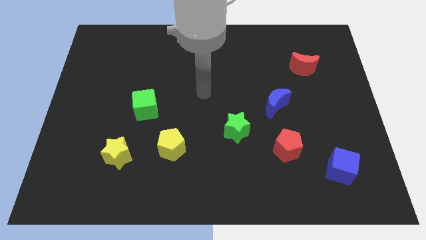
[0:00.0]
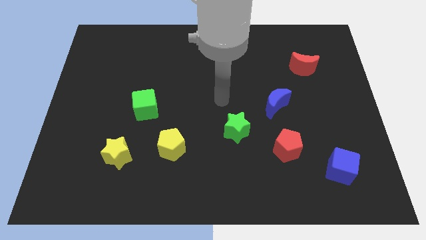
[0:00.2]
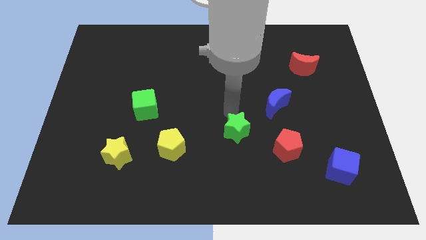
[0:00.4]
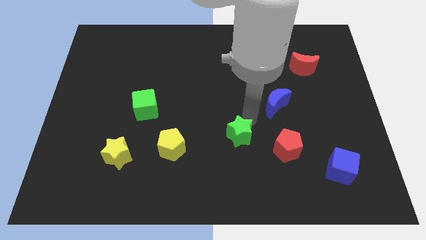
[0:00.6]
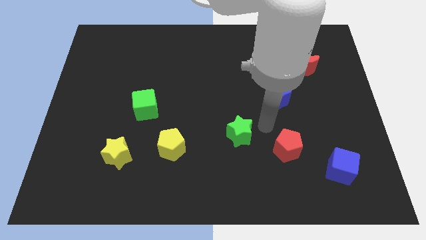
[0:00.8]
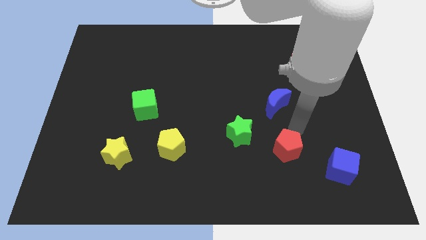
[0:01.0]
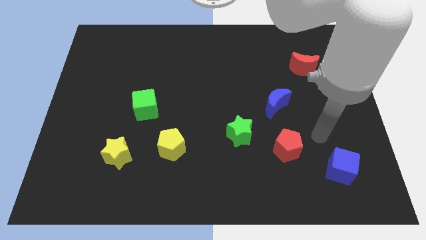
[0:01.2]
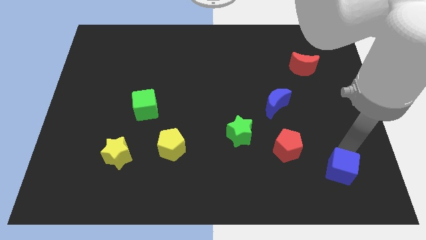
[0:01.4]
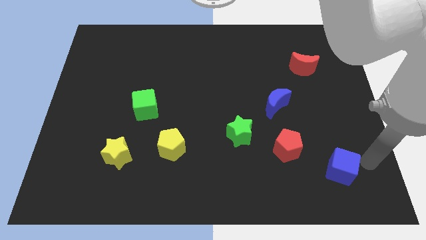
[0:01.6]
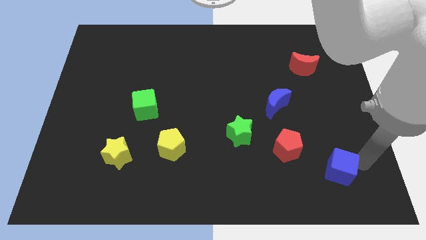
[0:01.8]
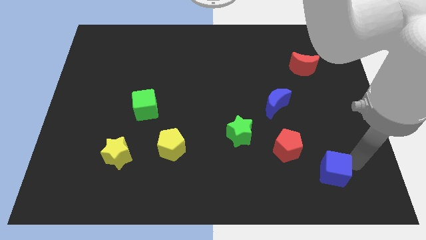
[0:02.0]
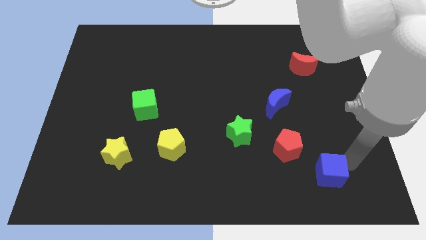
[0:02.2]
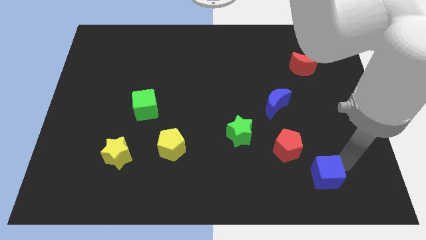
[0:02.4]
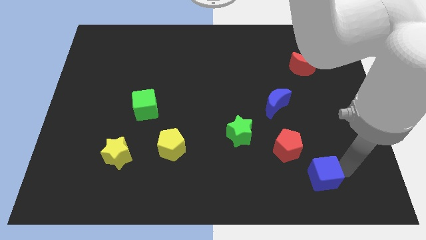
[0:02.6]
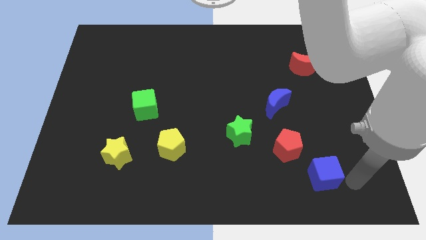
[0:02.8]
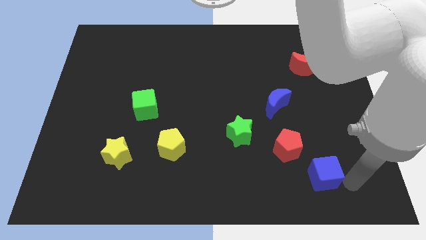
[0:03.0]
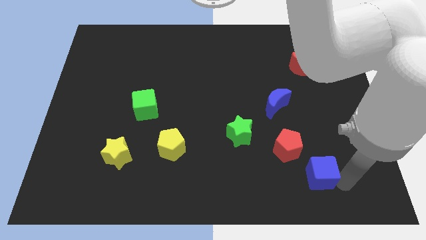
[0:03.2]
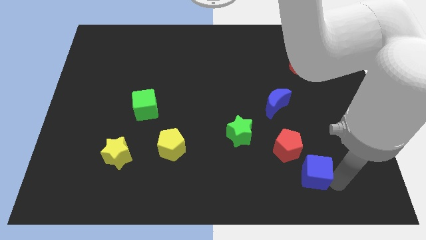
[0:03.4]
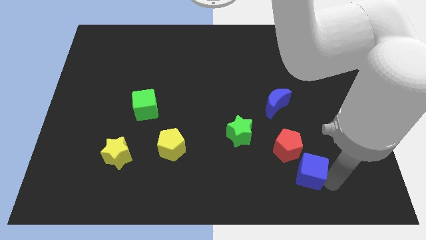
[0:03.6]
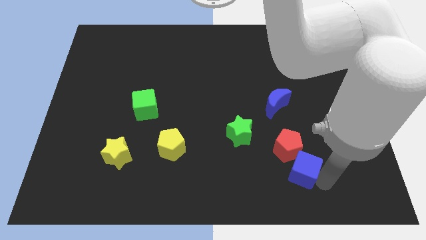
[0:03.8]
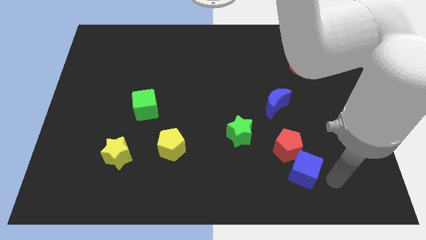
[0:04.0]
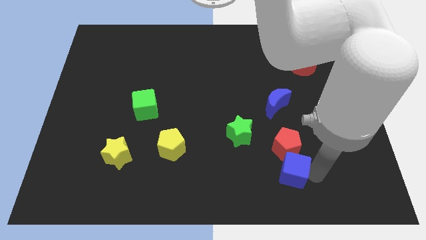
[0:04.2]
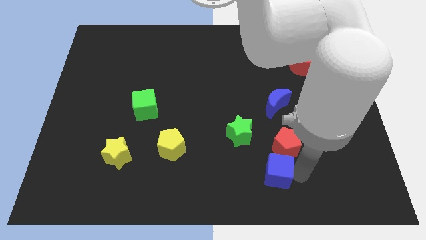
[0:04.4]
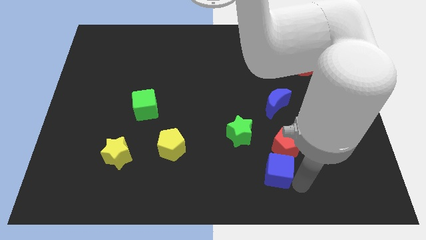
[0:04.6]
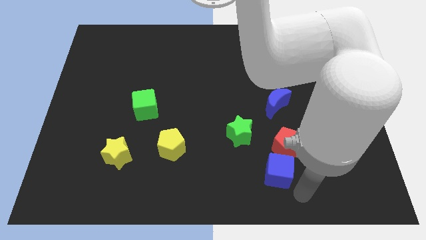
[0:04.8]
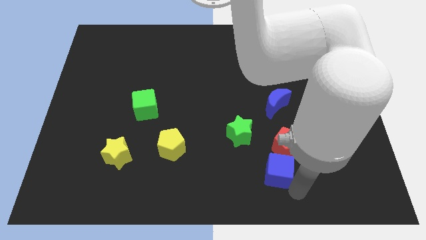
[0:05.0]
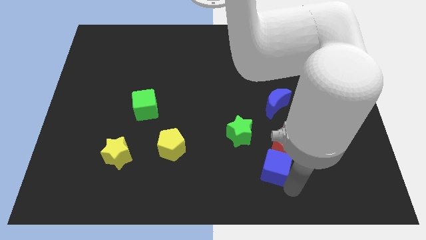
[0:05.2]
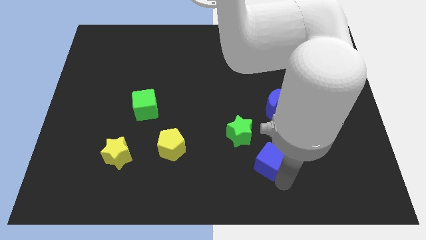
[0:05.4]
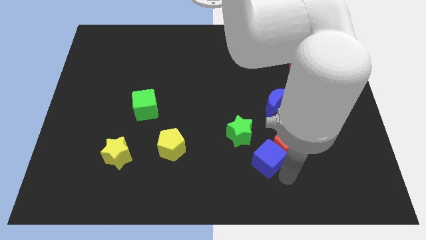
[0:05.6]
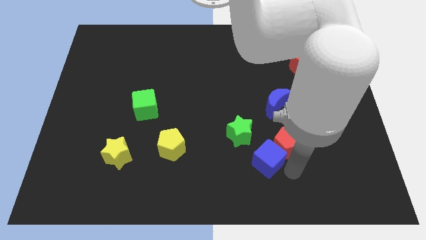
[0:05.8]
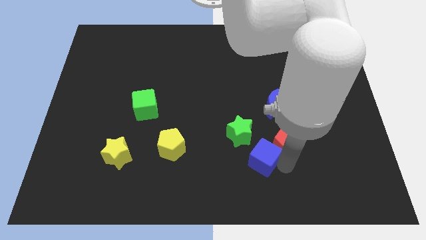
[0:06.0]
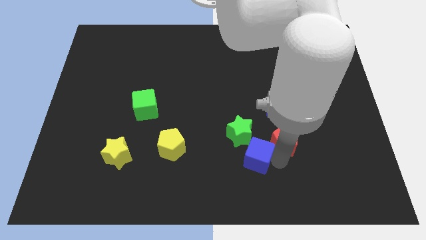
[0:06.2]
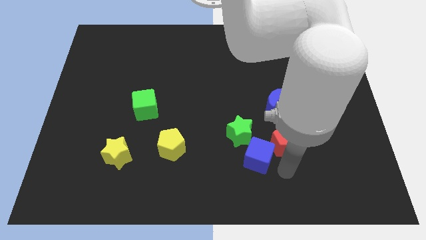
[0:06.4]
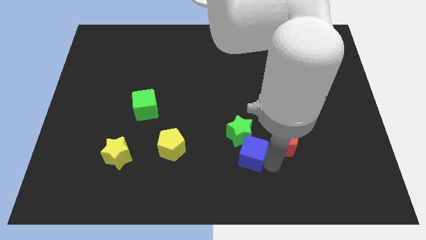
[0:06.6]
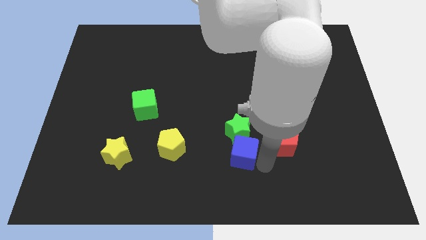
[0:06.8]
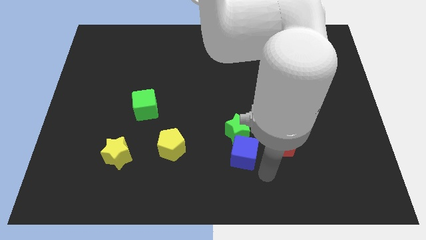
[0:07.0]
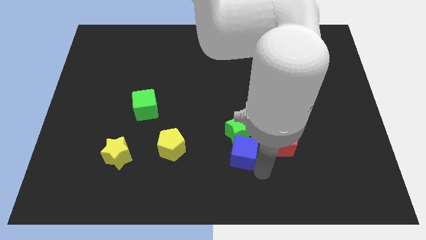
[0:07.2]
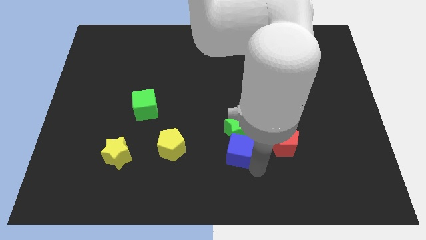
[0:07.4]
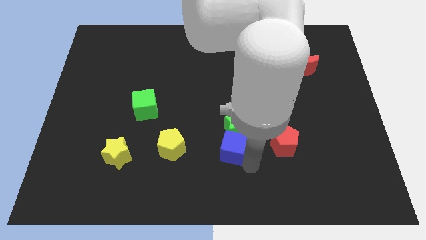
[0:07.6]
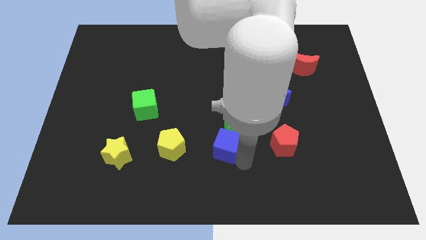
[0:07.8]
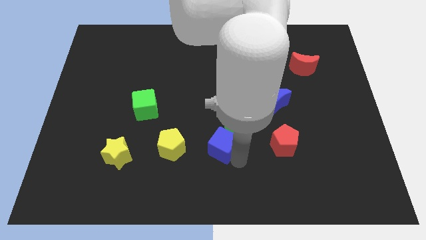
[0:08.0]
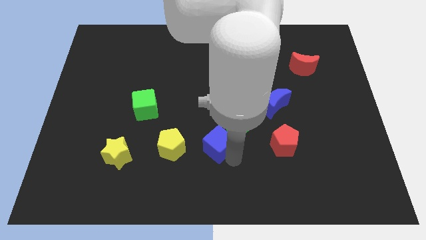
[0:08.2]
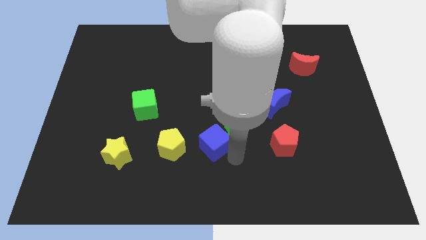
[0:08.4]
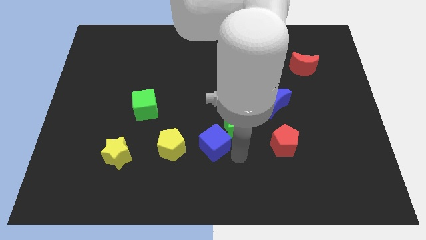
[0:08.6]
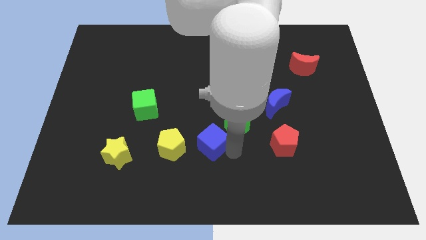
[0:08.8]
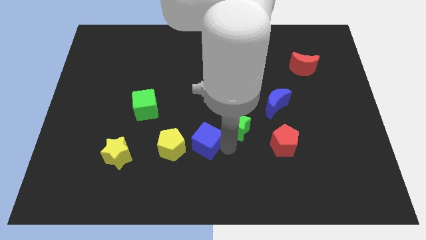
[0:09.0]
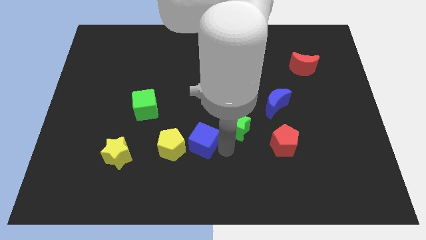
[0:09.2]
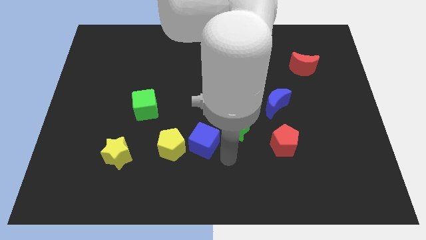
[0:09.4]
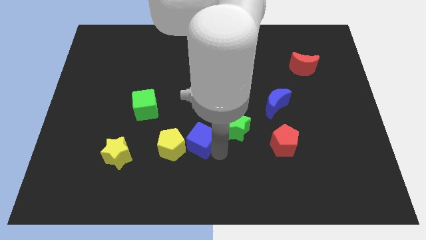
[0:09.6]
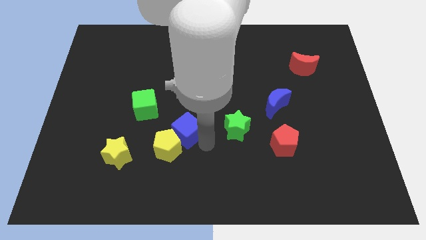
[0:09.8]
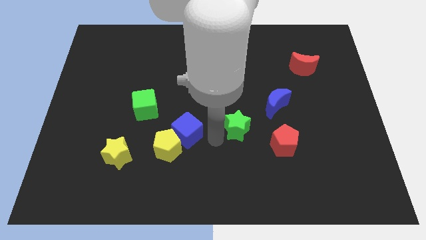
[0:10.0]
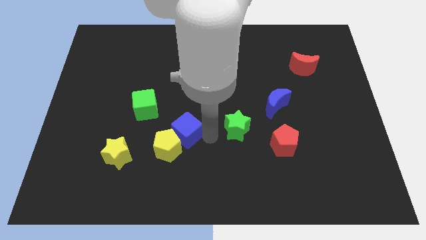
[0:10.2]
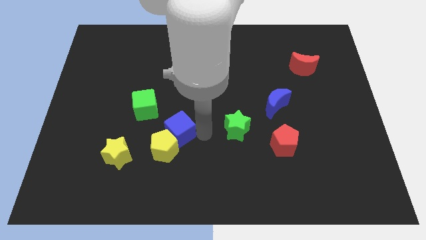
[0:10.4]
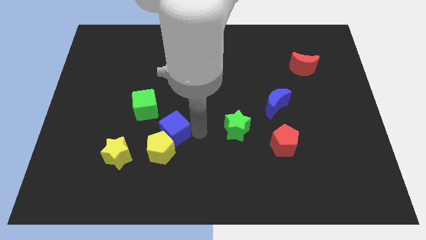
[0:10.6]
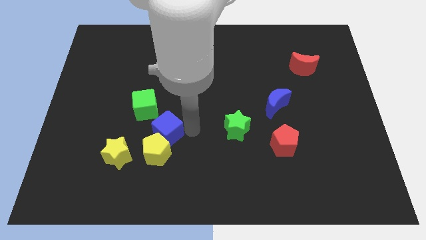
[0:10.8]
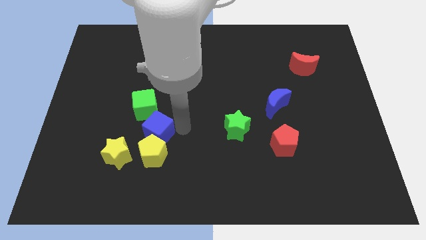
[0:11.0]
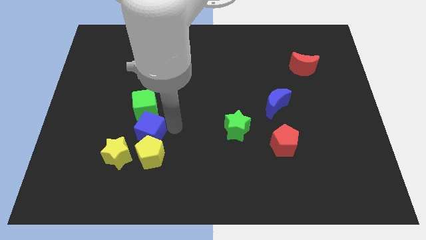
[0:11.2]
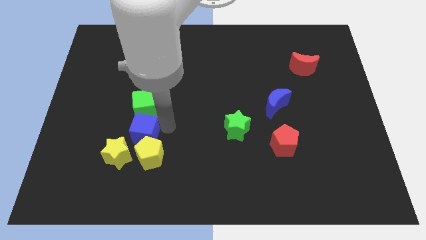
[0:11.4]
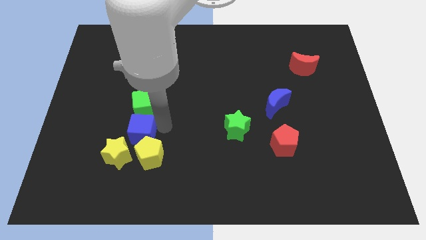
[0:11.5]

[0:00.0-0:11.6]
slide the blue cube to the bottom left of the green cube

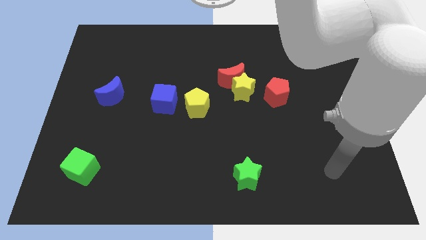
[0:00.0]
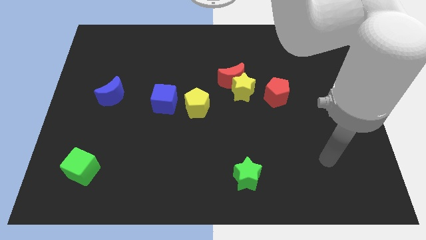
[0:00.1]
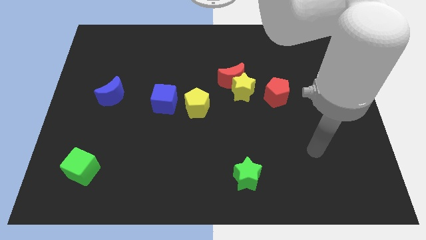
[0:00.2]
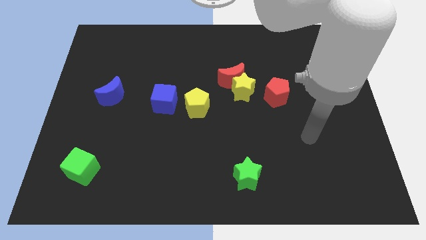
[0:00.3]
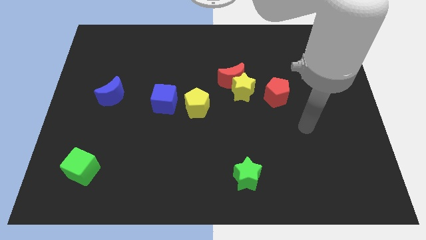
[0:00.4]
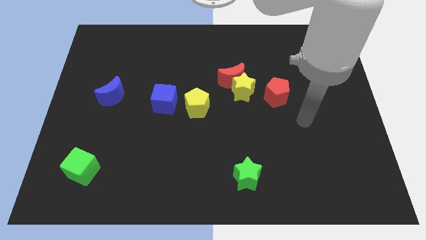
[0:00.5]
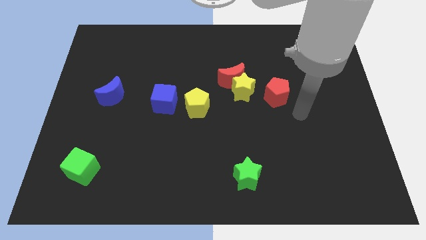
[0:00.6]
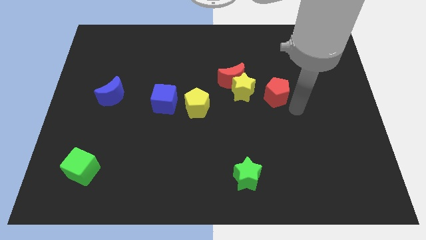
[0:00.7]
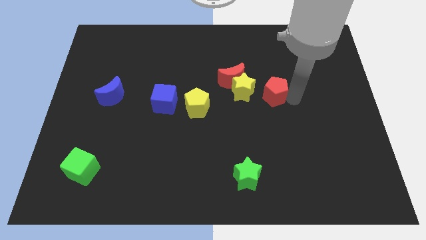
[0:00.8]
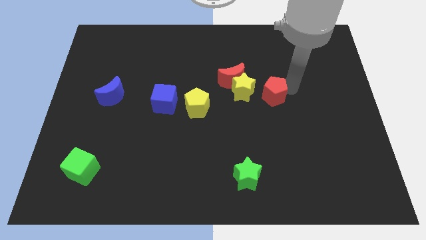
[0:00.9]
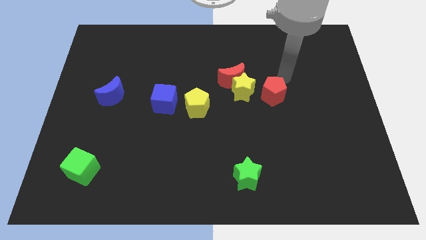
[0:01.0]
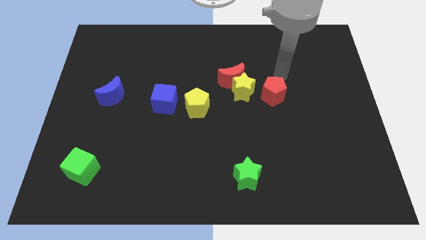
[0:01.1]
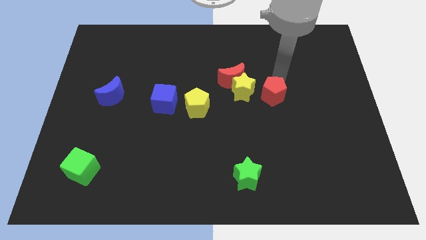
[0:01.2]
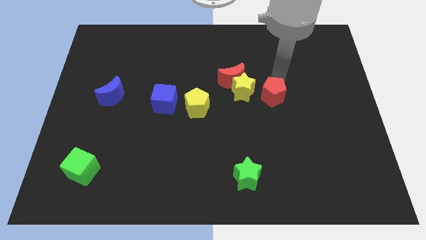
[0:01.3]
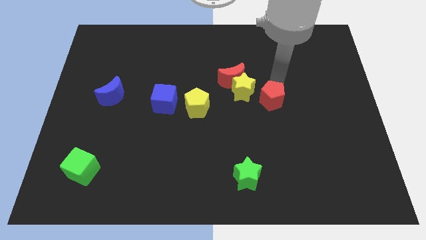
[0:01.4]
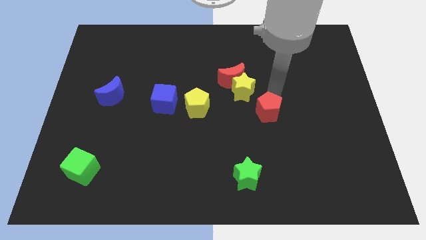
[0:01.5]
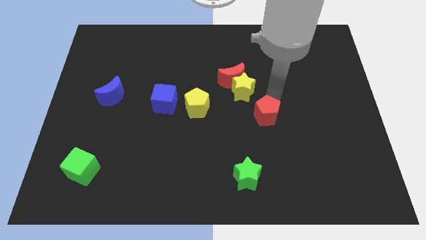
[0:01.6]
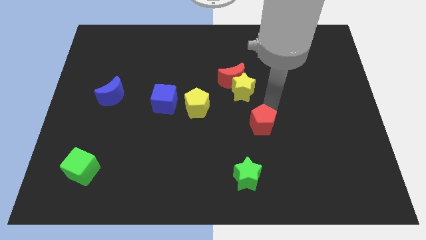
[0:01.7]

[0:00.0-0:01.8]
put the red pentagon to the top side of the green star
